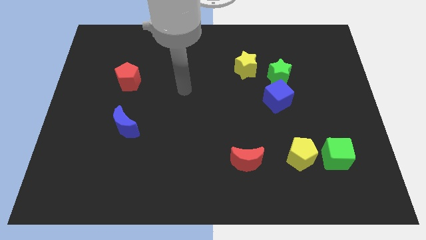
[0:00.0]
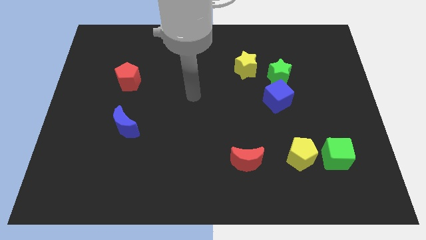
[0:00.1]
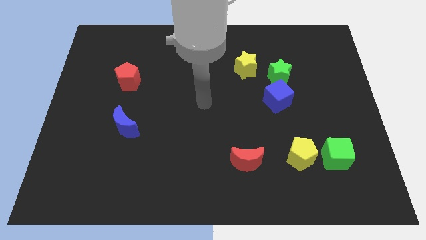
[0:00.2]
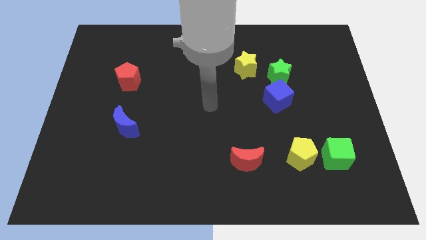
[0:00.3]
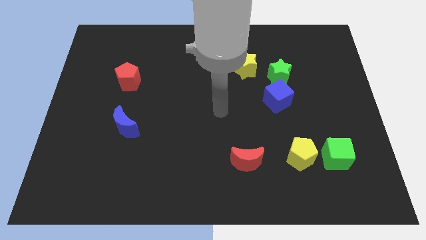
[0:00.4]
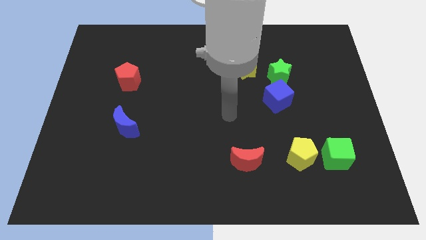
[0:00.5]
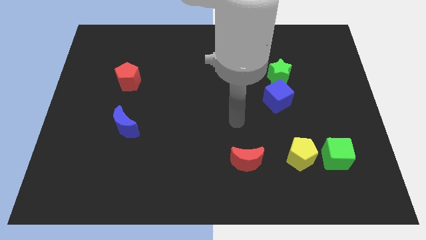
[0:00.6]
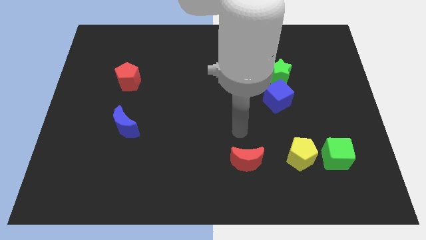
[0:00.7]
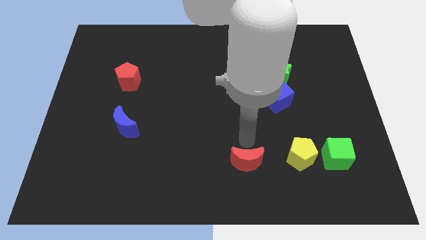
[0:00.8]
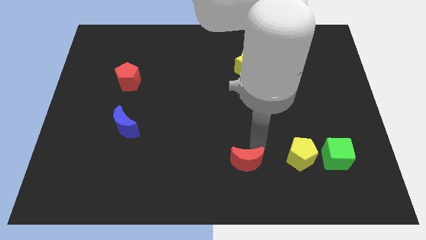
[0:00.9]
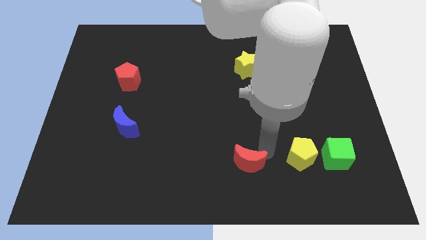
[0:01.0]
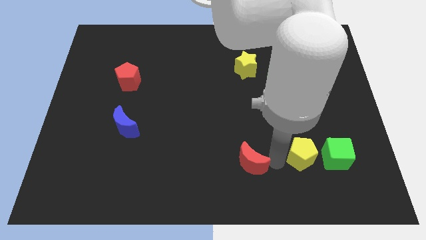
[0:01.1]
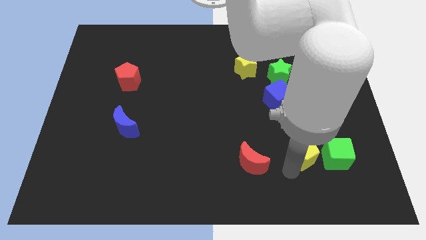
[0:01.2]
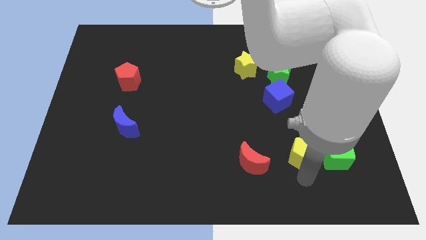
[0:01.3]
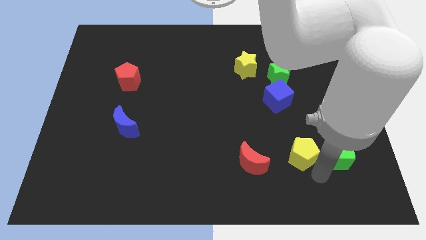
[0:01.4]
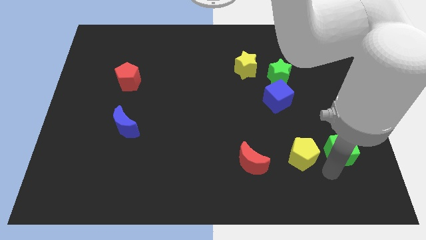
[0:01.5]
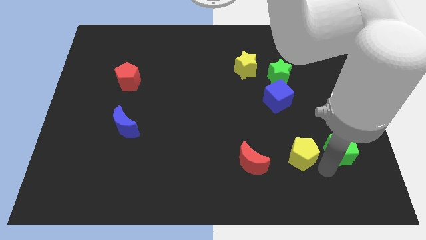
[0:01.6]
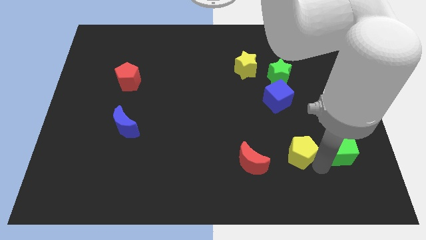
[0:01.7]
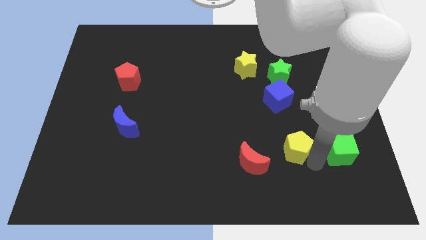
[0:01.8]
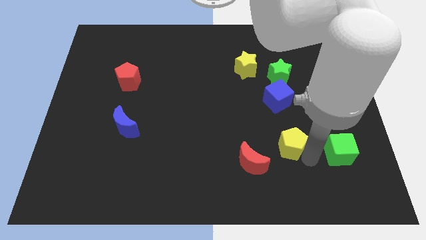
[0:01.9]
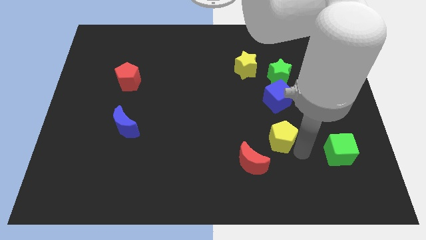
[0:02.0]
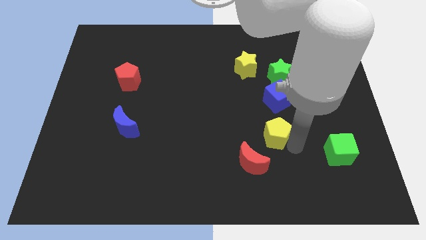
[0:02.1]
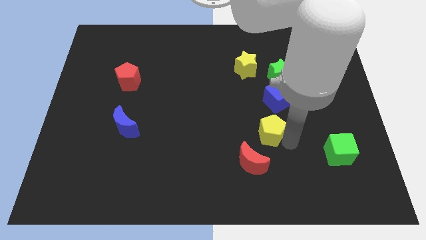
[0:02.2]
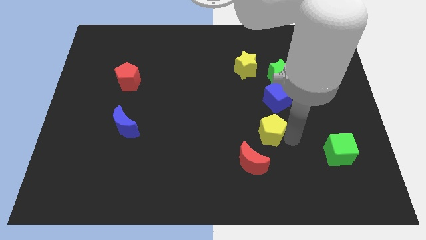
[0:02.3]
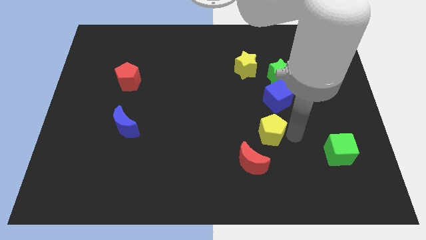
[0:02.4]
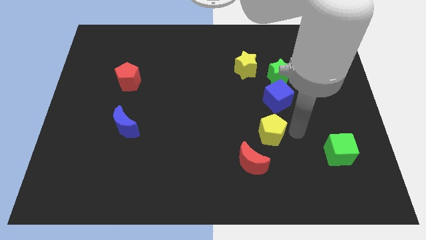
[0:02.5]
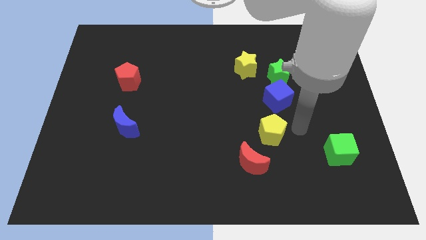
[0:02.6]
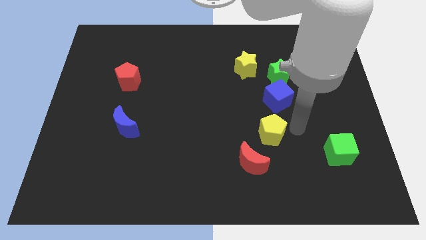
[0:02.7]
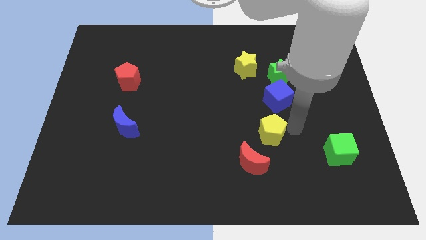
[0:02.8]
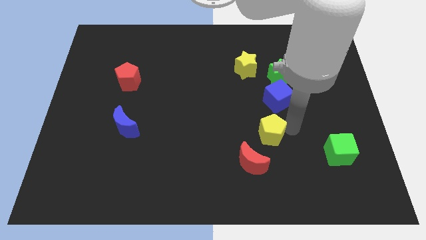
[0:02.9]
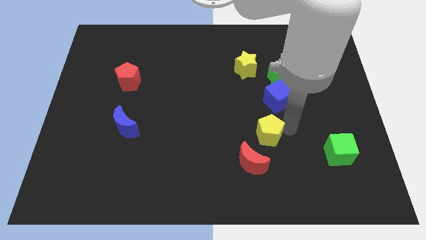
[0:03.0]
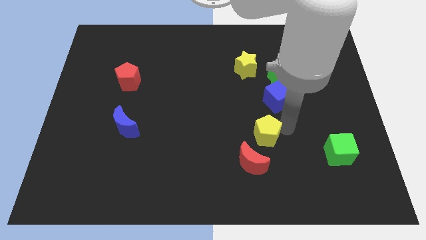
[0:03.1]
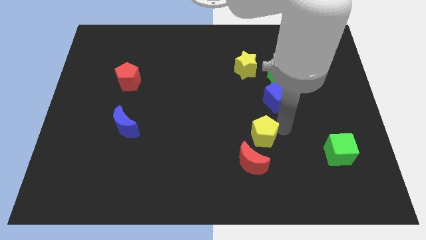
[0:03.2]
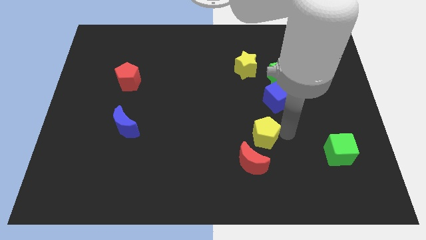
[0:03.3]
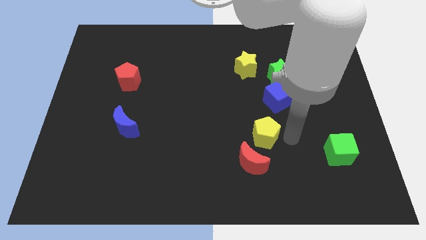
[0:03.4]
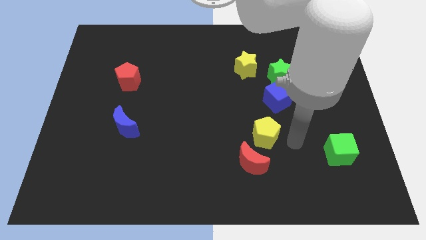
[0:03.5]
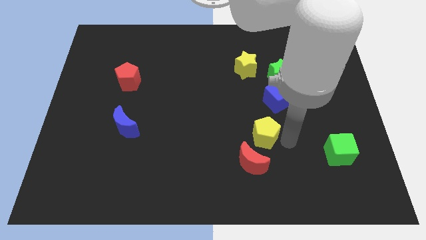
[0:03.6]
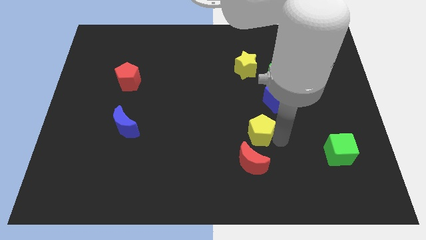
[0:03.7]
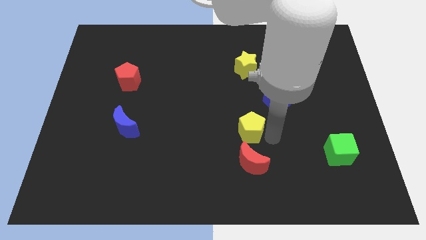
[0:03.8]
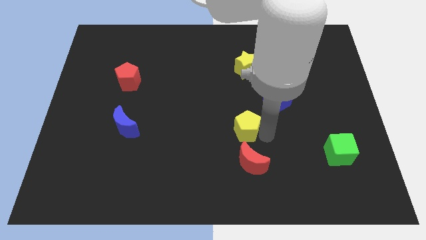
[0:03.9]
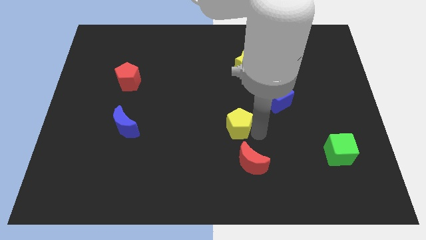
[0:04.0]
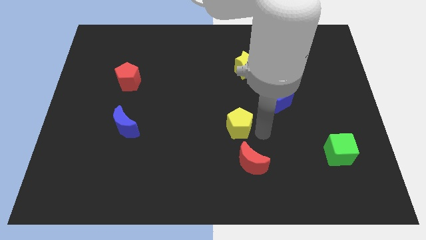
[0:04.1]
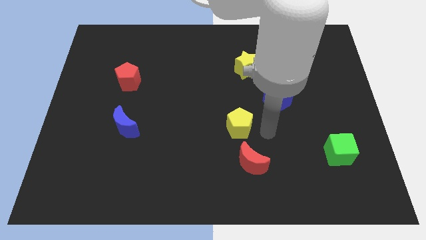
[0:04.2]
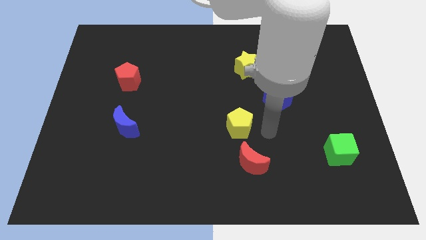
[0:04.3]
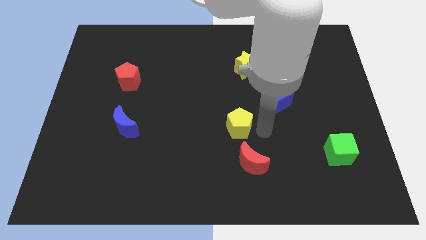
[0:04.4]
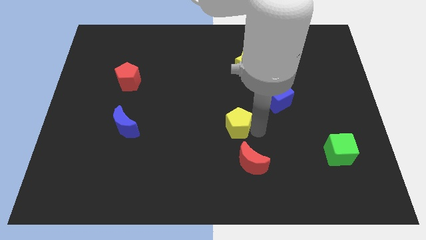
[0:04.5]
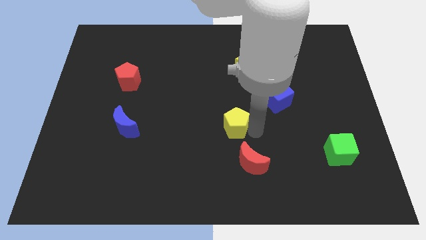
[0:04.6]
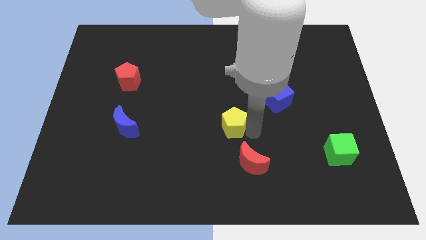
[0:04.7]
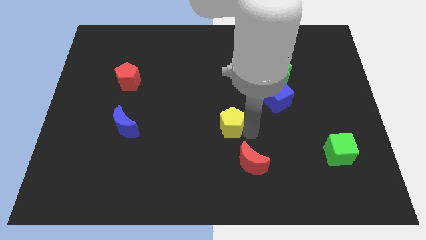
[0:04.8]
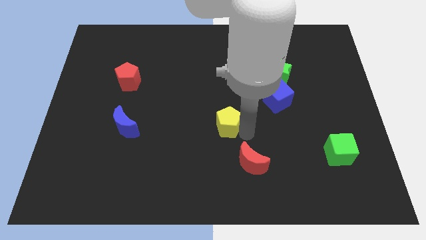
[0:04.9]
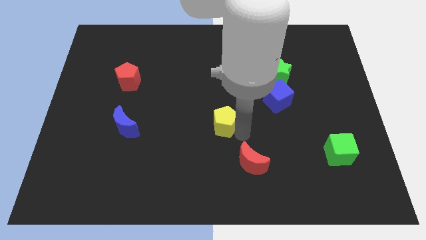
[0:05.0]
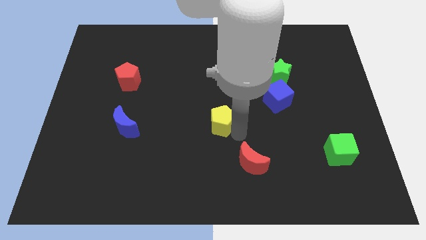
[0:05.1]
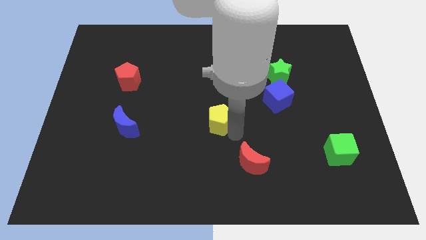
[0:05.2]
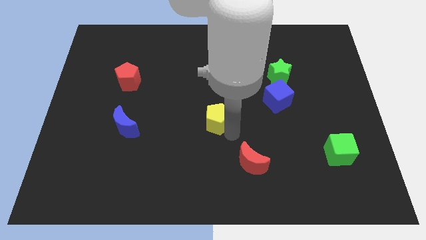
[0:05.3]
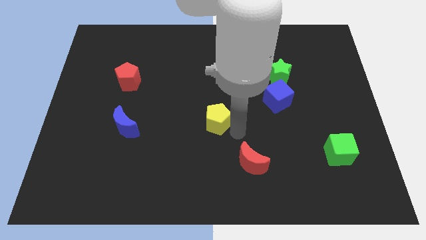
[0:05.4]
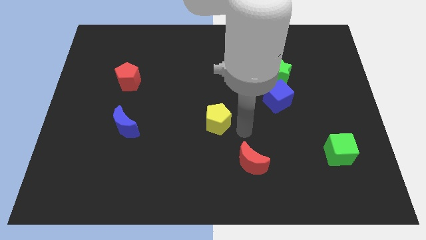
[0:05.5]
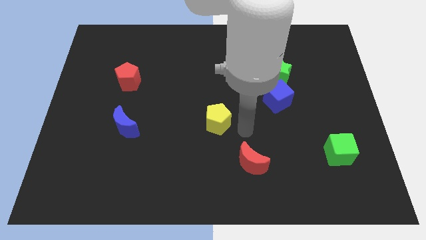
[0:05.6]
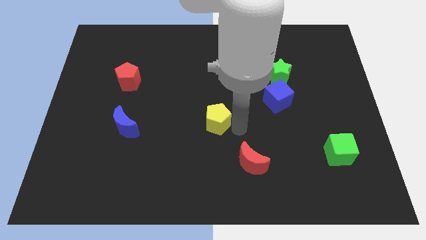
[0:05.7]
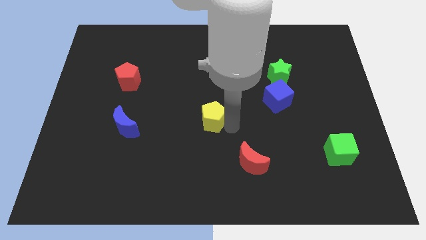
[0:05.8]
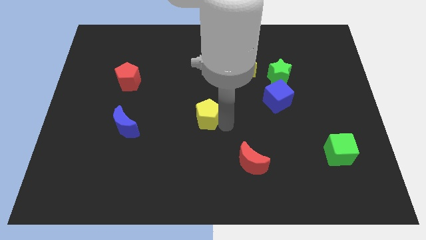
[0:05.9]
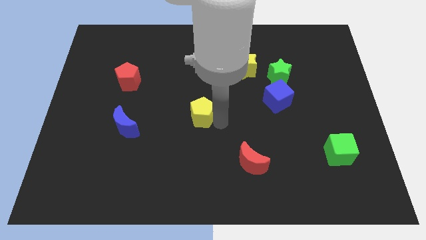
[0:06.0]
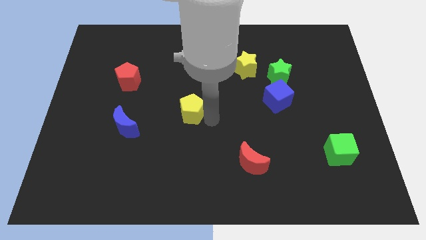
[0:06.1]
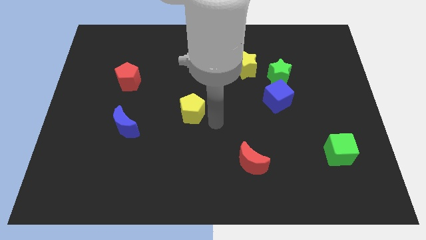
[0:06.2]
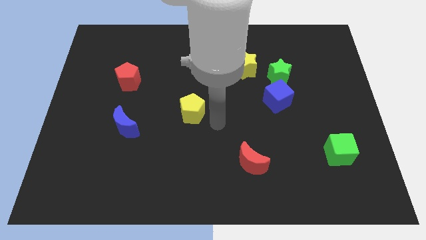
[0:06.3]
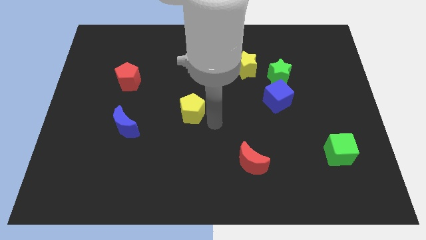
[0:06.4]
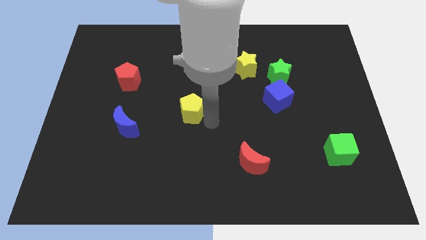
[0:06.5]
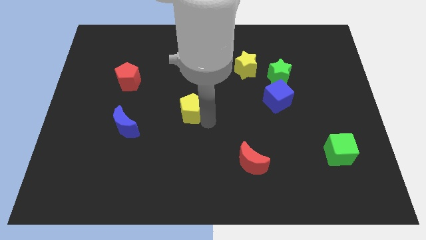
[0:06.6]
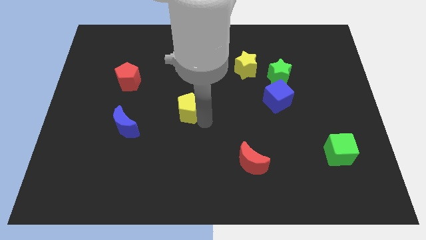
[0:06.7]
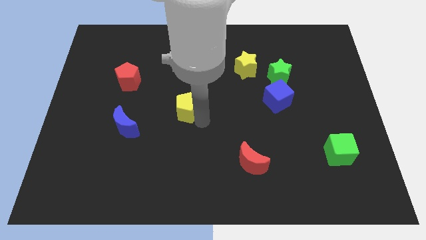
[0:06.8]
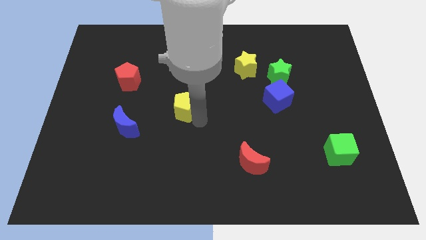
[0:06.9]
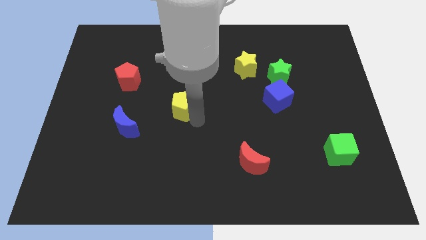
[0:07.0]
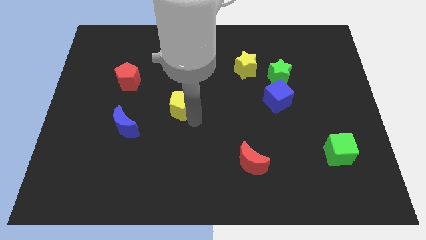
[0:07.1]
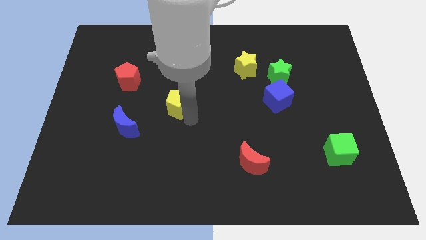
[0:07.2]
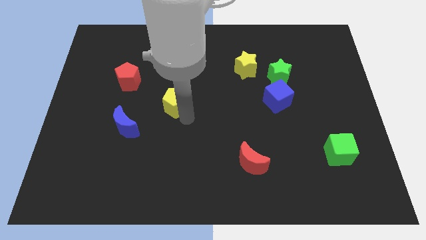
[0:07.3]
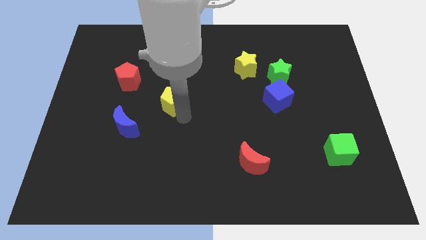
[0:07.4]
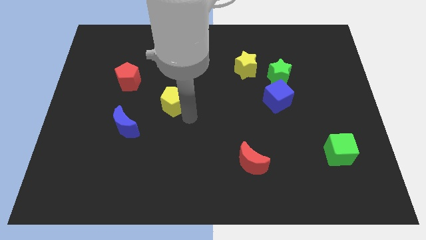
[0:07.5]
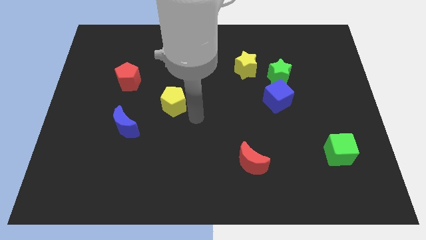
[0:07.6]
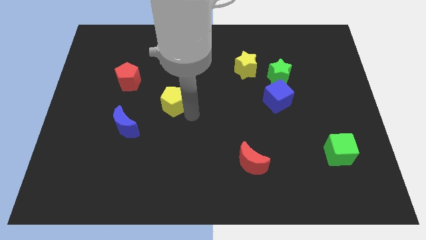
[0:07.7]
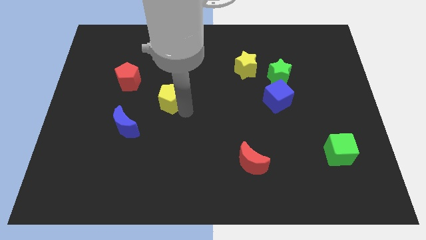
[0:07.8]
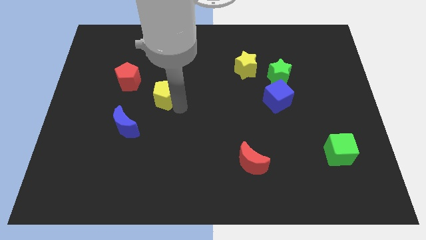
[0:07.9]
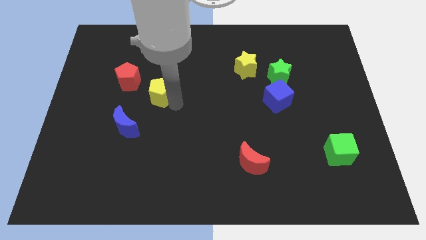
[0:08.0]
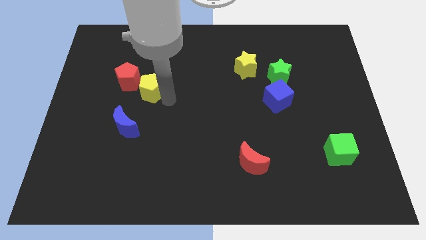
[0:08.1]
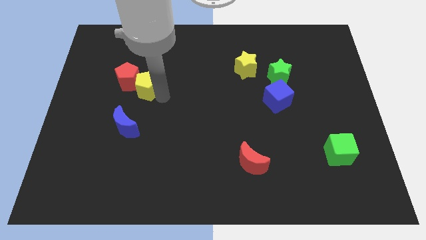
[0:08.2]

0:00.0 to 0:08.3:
push the yellow pentagon to the red pentagon
